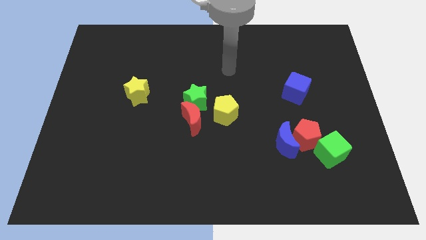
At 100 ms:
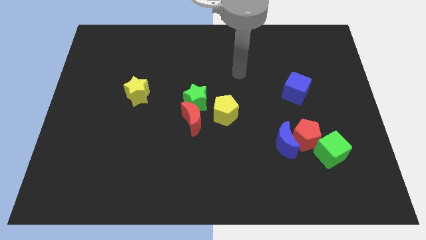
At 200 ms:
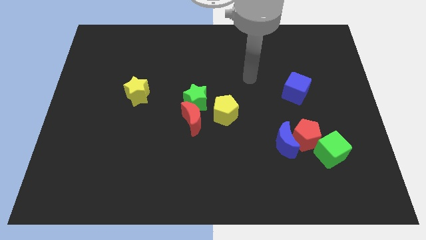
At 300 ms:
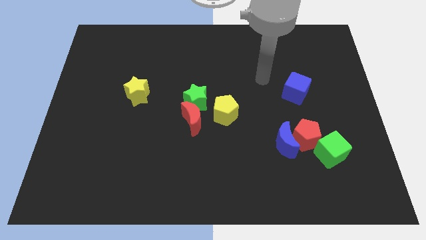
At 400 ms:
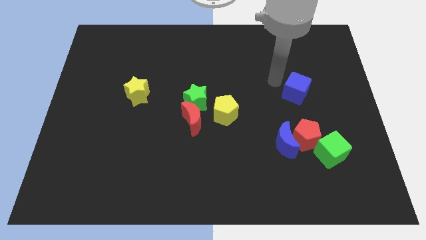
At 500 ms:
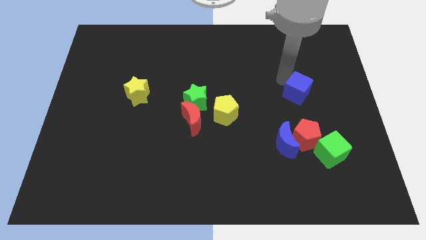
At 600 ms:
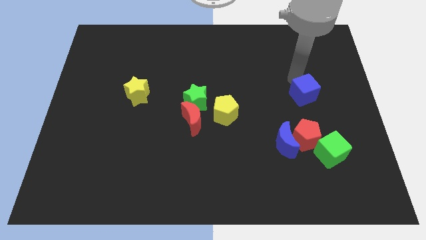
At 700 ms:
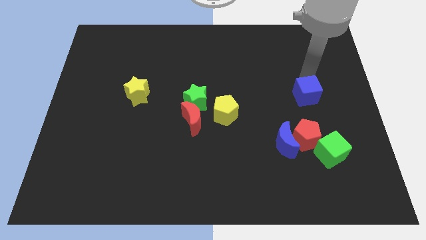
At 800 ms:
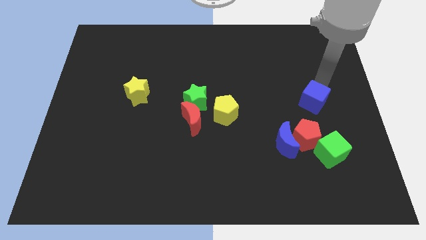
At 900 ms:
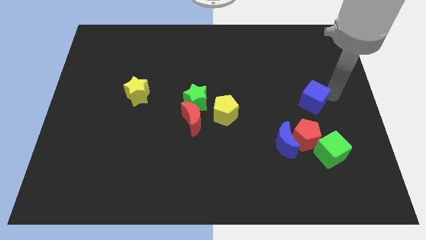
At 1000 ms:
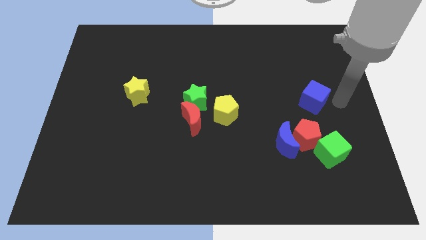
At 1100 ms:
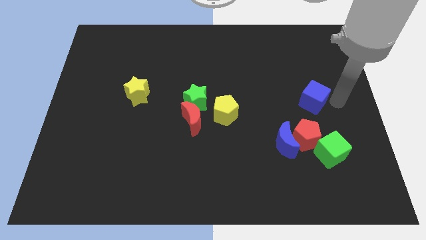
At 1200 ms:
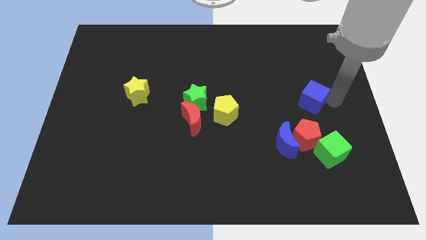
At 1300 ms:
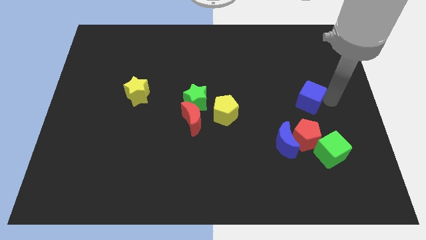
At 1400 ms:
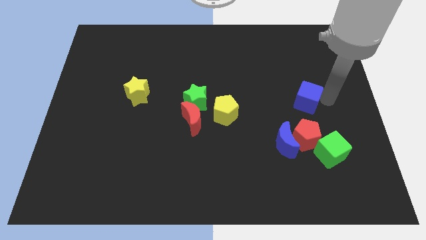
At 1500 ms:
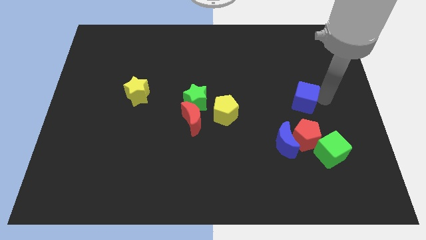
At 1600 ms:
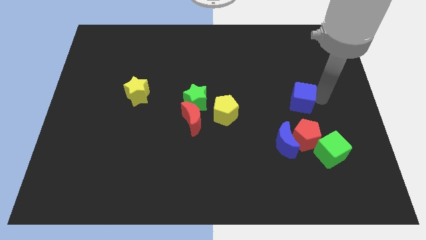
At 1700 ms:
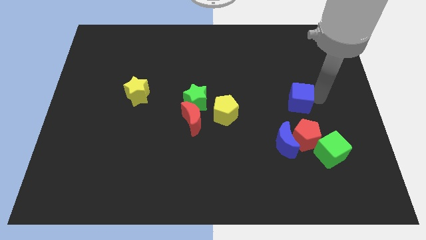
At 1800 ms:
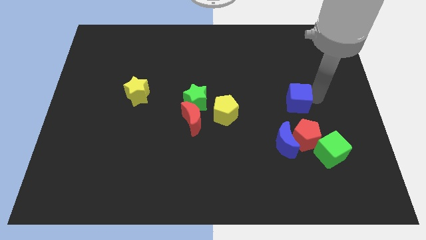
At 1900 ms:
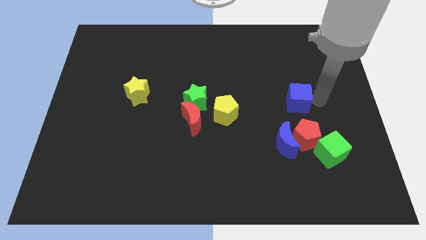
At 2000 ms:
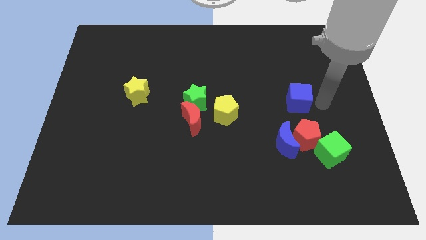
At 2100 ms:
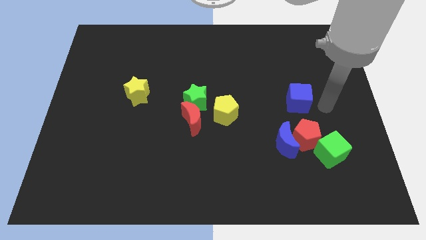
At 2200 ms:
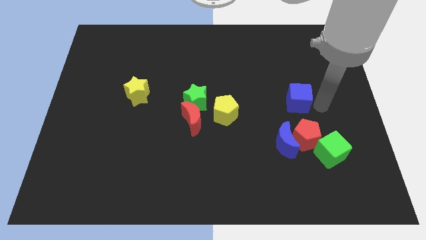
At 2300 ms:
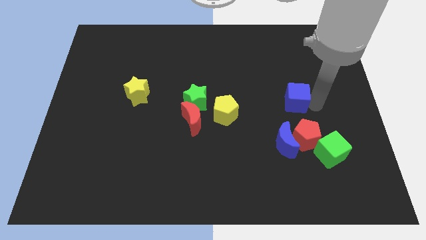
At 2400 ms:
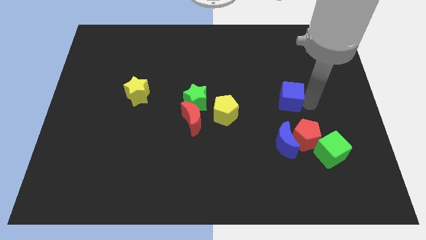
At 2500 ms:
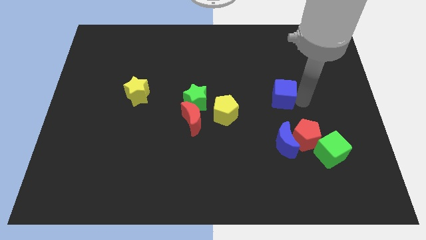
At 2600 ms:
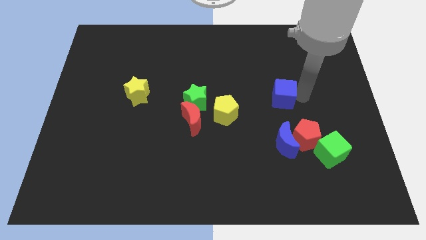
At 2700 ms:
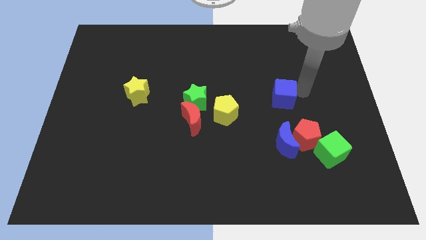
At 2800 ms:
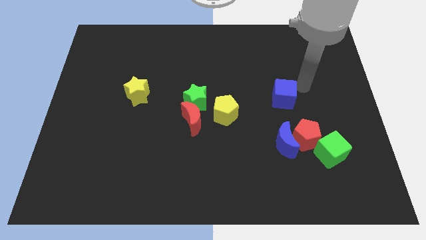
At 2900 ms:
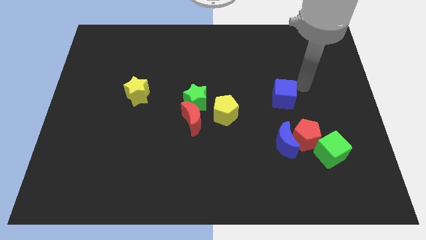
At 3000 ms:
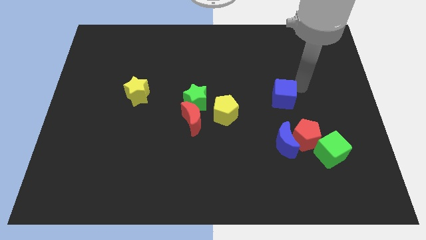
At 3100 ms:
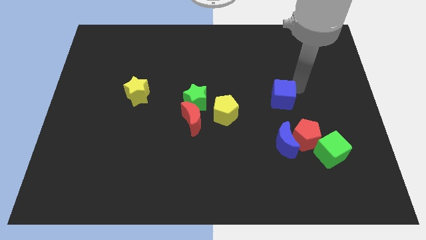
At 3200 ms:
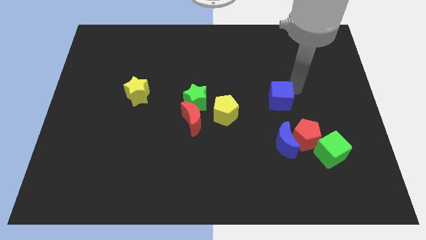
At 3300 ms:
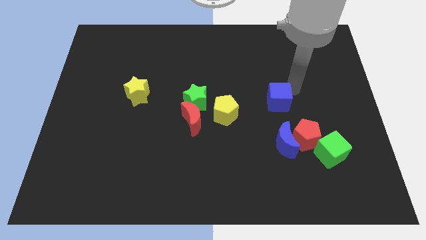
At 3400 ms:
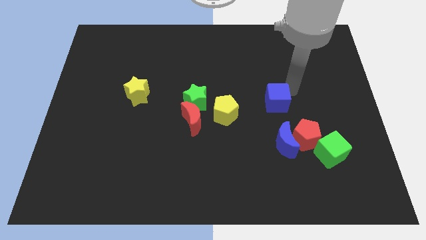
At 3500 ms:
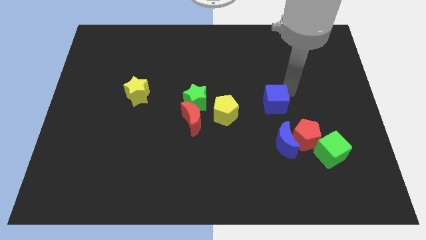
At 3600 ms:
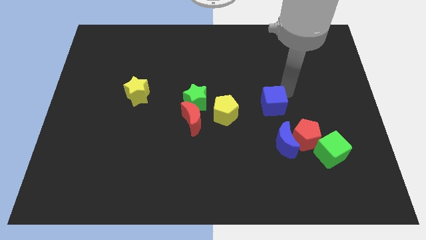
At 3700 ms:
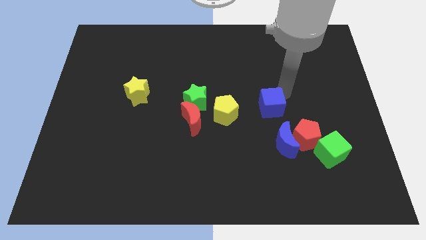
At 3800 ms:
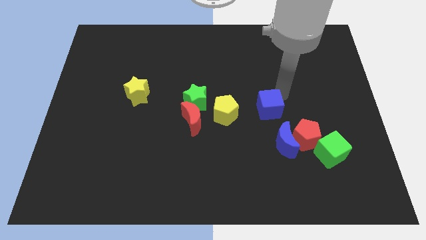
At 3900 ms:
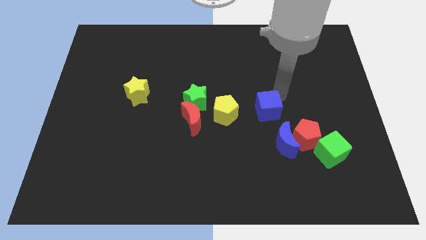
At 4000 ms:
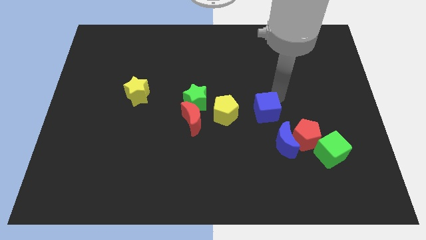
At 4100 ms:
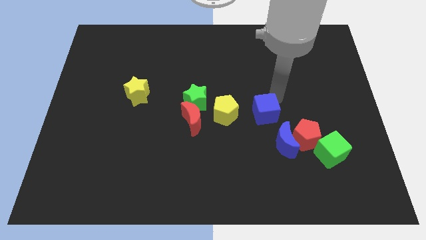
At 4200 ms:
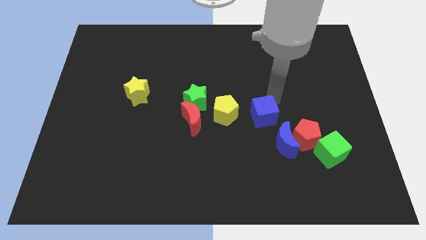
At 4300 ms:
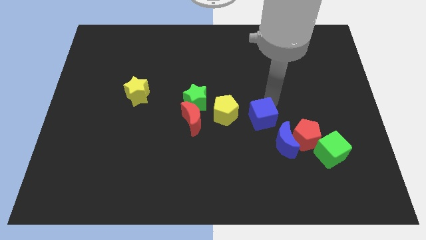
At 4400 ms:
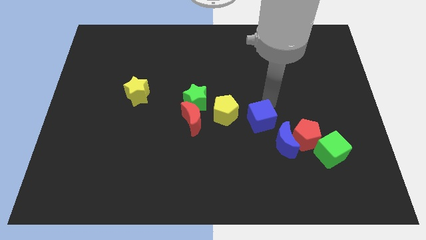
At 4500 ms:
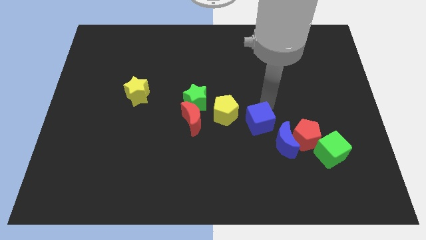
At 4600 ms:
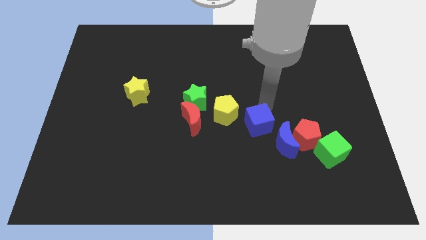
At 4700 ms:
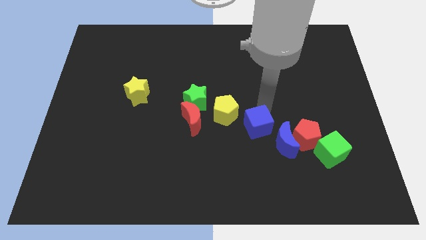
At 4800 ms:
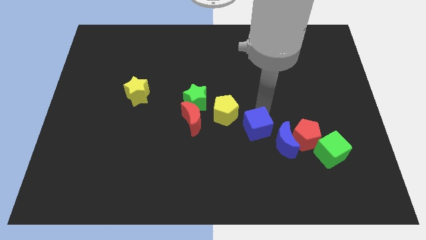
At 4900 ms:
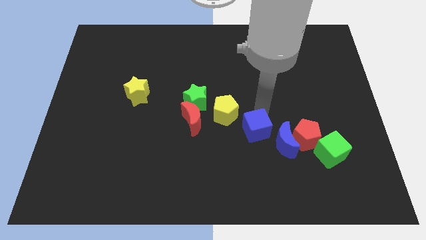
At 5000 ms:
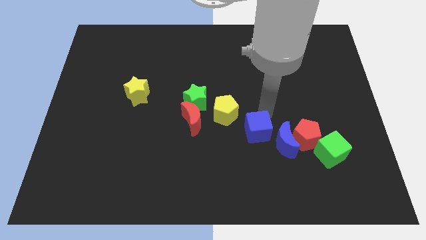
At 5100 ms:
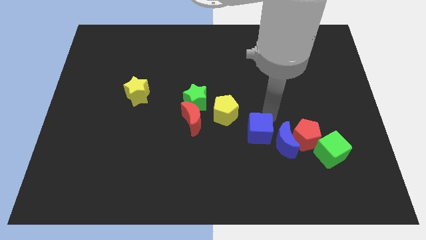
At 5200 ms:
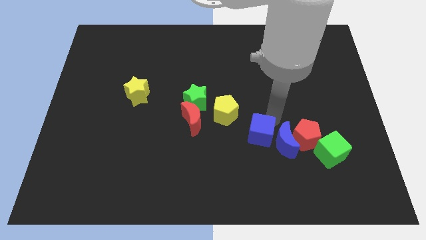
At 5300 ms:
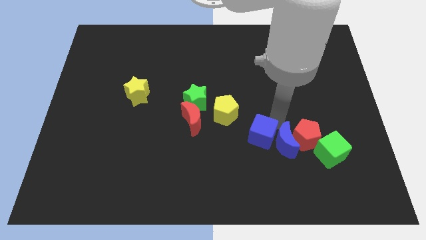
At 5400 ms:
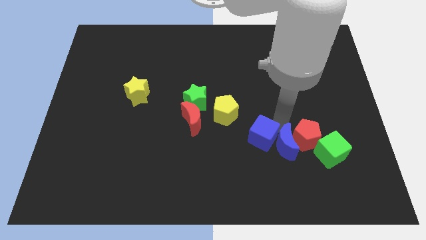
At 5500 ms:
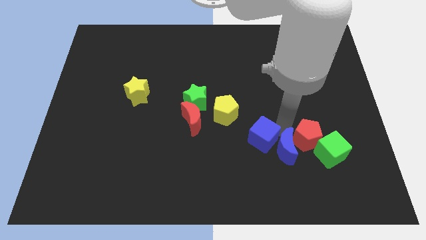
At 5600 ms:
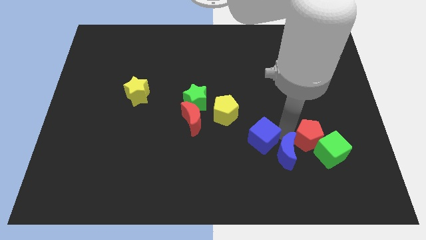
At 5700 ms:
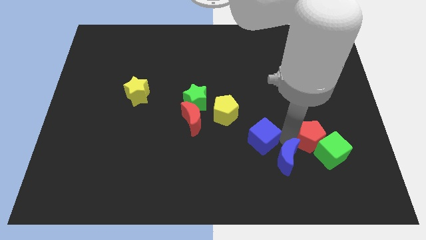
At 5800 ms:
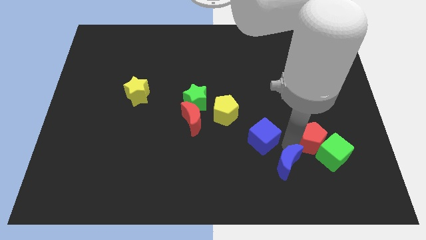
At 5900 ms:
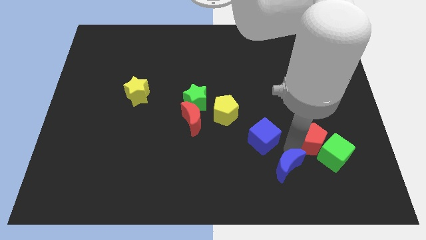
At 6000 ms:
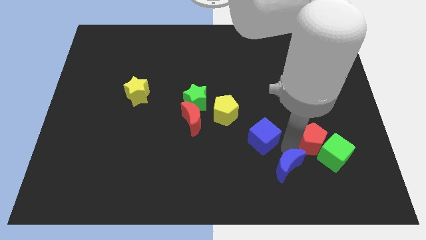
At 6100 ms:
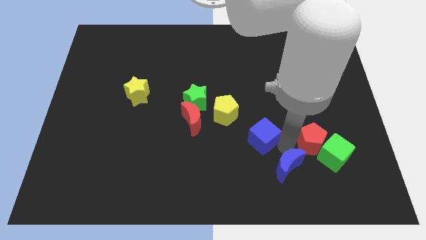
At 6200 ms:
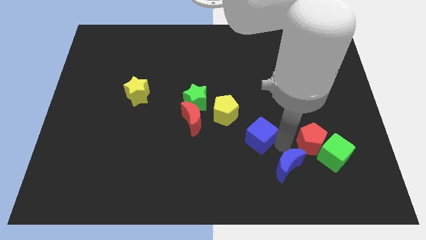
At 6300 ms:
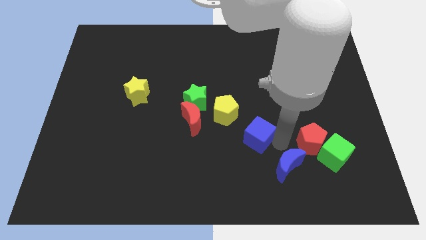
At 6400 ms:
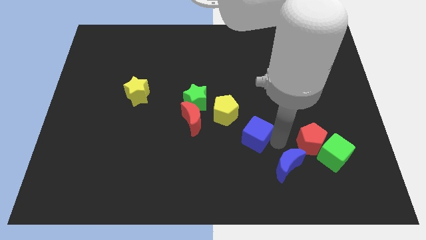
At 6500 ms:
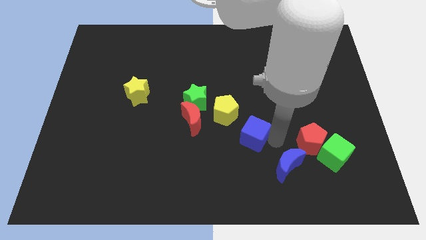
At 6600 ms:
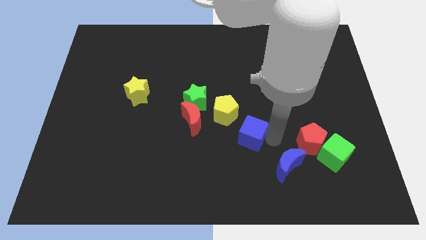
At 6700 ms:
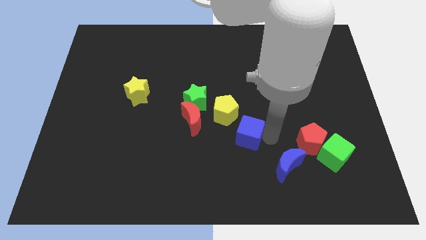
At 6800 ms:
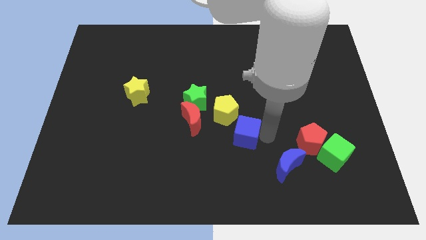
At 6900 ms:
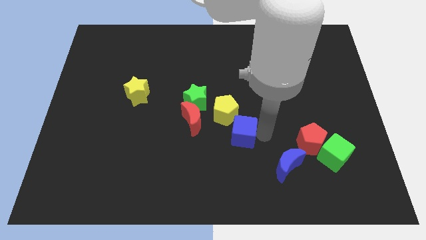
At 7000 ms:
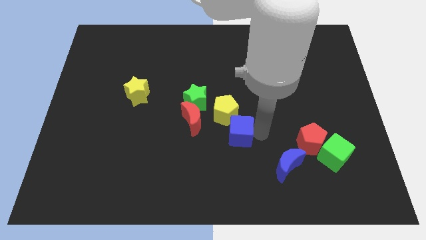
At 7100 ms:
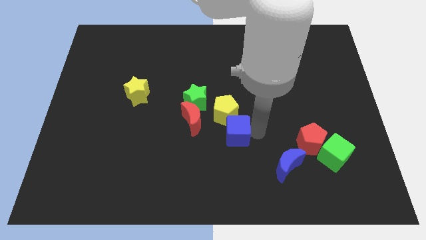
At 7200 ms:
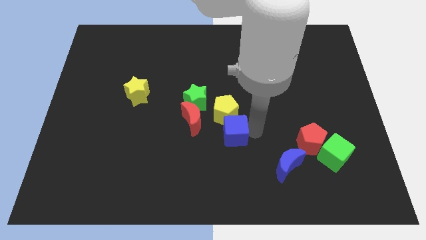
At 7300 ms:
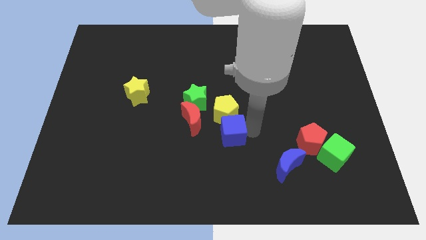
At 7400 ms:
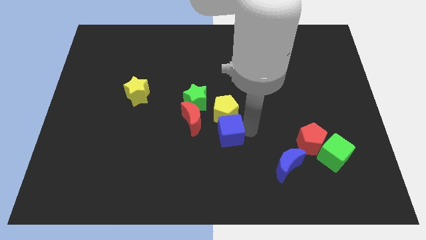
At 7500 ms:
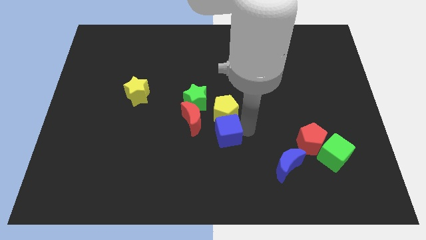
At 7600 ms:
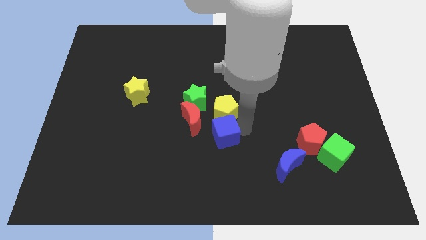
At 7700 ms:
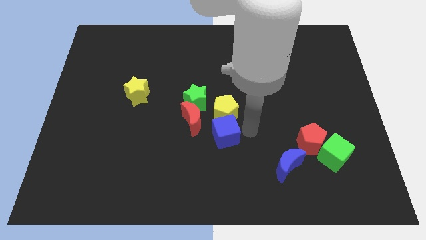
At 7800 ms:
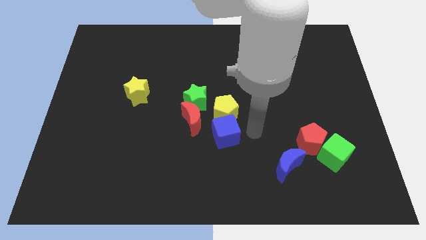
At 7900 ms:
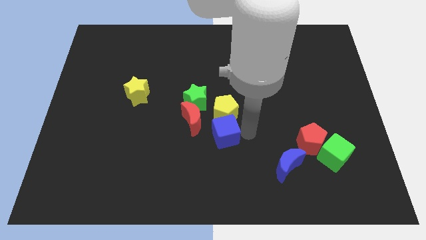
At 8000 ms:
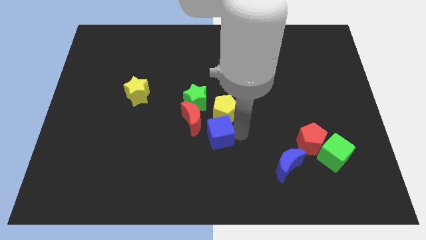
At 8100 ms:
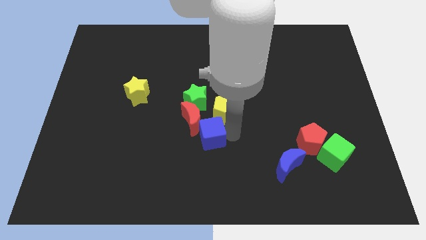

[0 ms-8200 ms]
move the blue cube to the bottom side of the green star

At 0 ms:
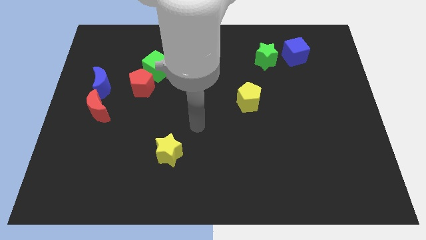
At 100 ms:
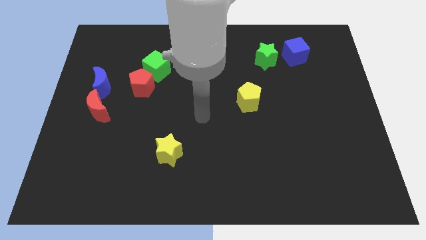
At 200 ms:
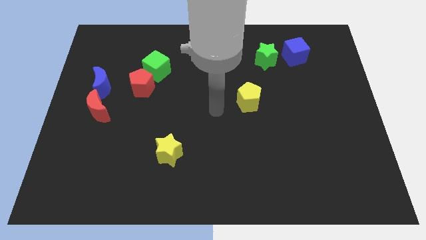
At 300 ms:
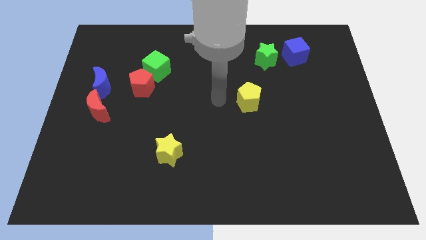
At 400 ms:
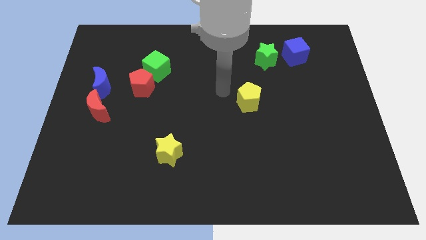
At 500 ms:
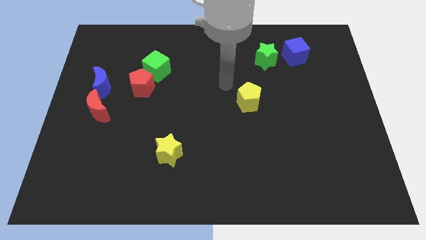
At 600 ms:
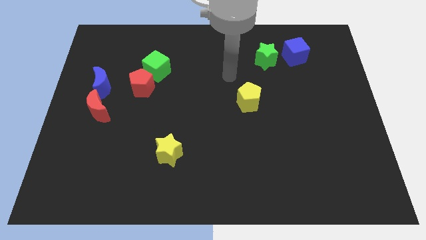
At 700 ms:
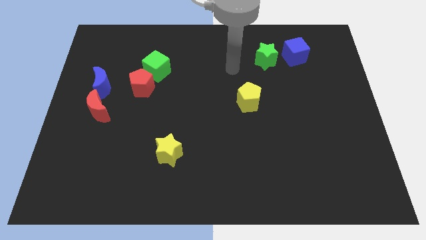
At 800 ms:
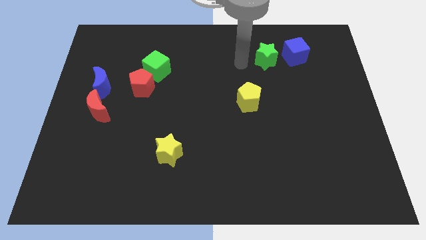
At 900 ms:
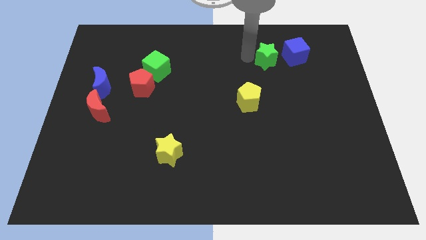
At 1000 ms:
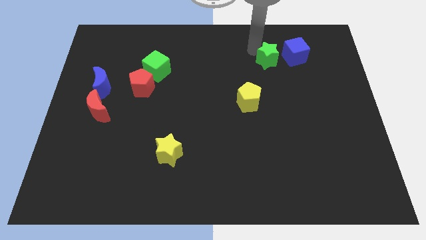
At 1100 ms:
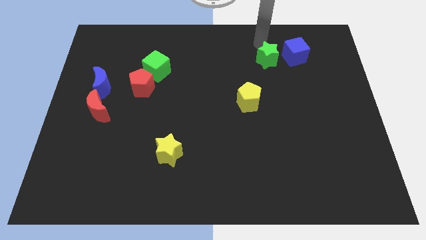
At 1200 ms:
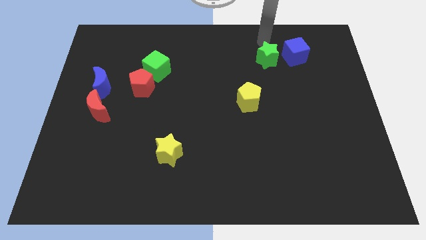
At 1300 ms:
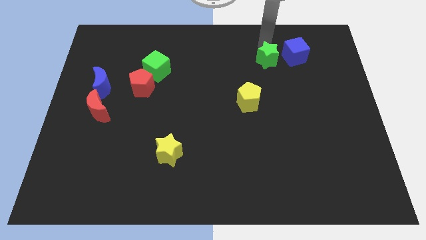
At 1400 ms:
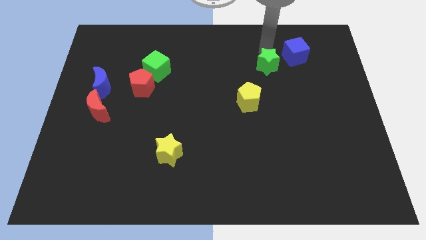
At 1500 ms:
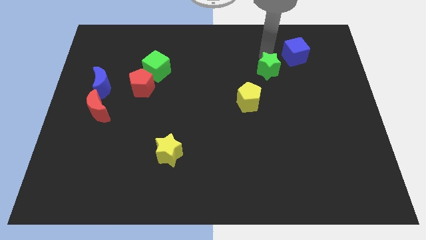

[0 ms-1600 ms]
slide the green star to the top right of the yellow pentagon
